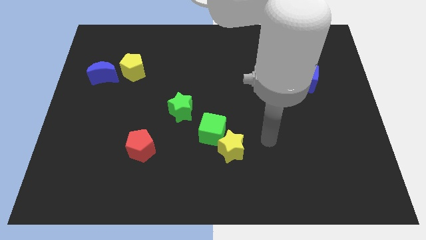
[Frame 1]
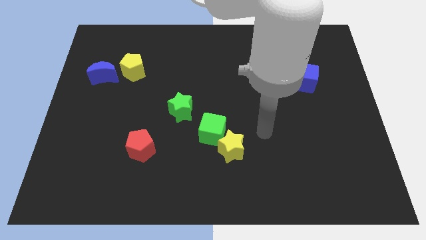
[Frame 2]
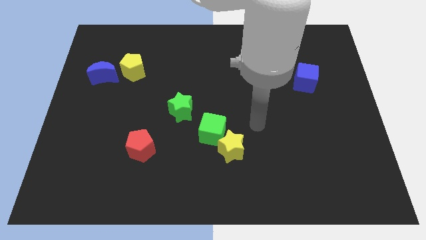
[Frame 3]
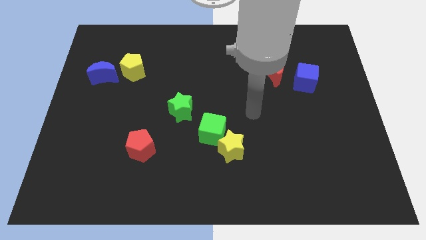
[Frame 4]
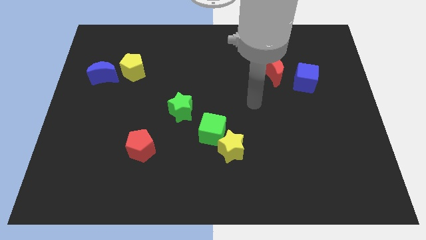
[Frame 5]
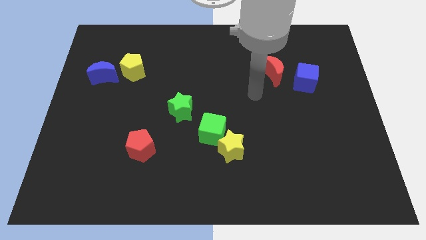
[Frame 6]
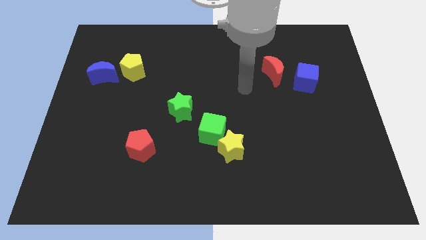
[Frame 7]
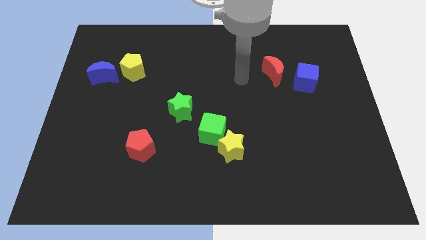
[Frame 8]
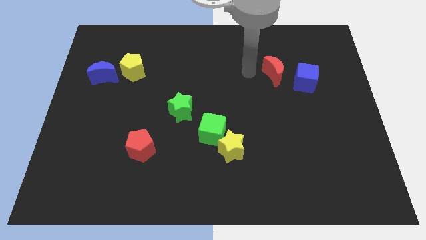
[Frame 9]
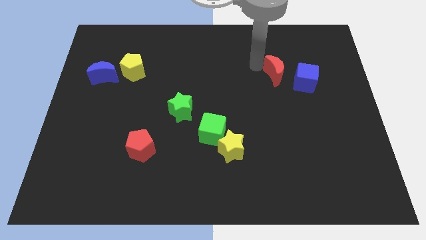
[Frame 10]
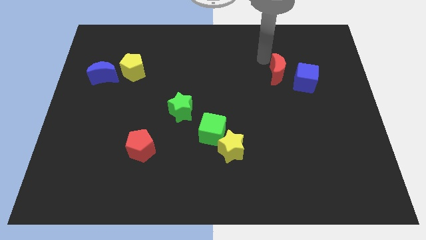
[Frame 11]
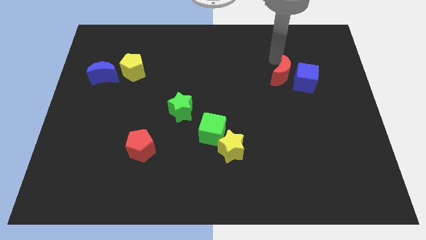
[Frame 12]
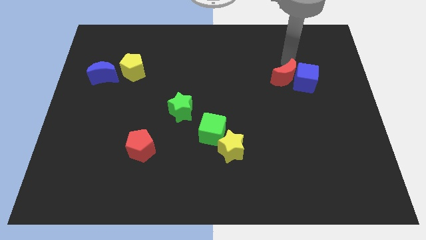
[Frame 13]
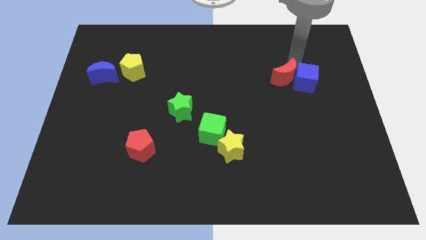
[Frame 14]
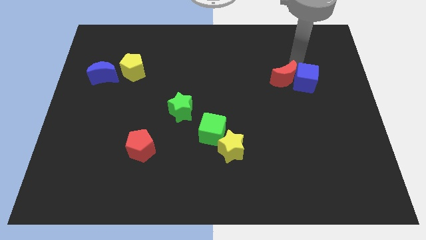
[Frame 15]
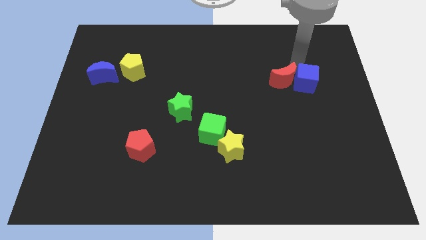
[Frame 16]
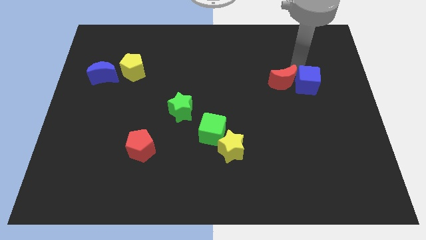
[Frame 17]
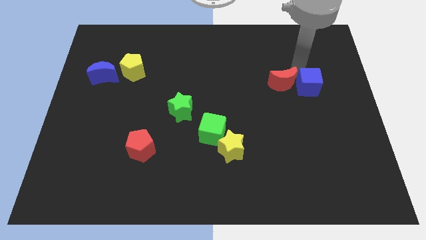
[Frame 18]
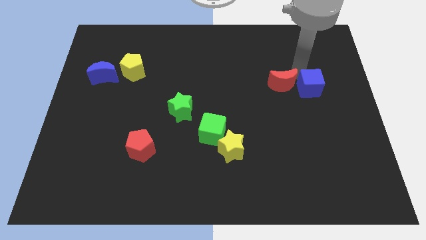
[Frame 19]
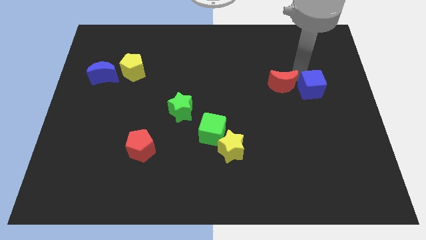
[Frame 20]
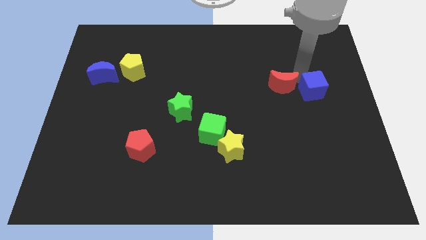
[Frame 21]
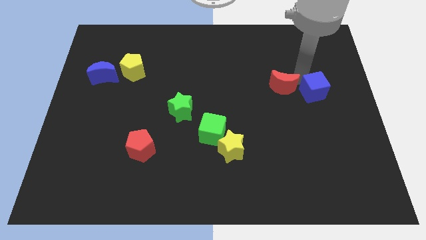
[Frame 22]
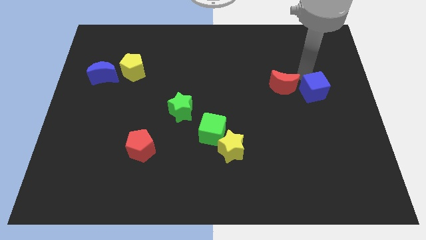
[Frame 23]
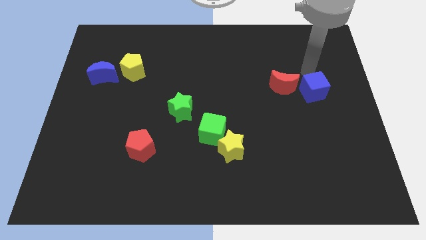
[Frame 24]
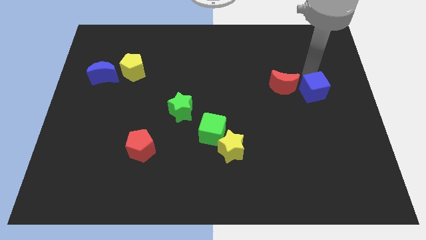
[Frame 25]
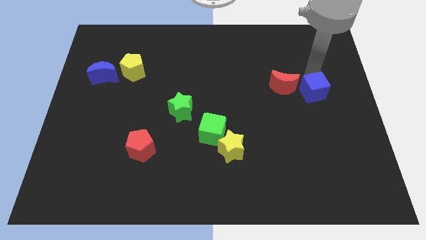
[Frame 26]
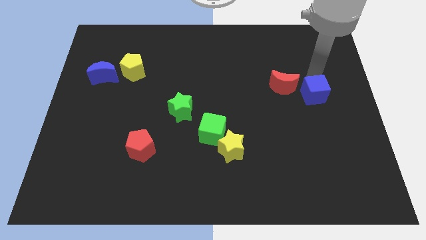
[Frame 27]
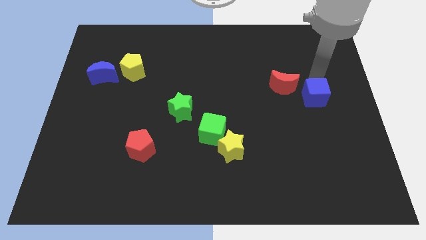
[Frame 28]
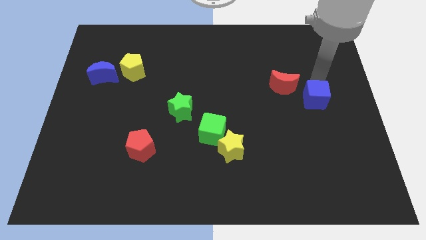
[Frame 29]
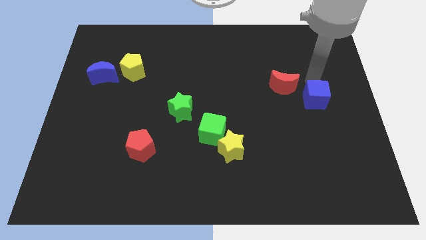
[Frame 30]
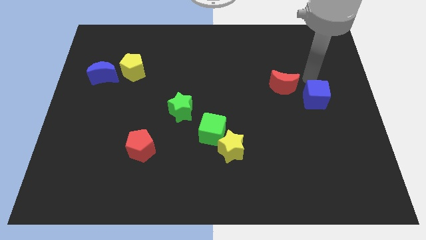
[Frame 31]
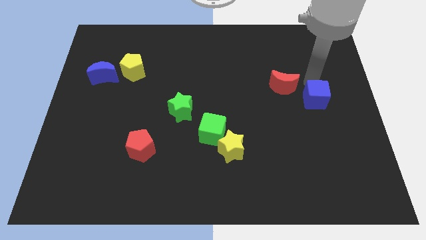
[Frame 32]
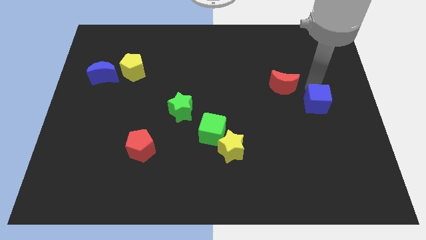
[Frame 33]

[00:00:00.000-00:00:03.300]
move the blue cube down somewhat

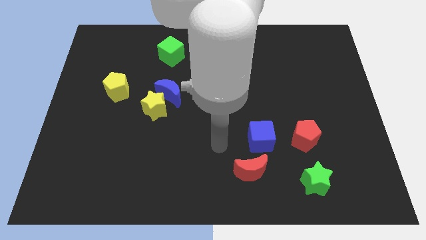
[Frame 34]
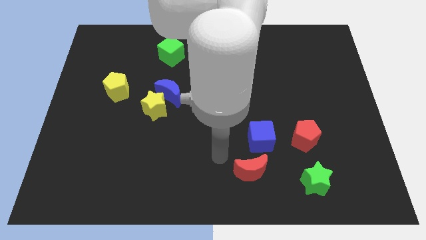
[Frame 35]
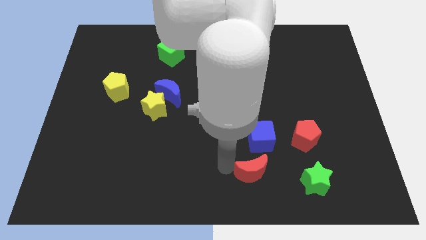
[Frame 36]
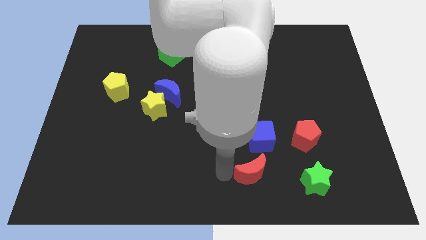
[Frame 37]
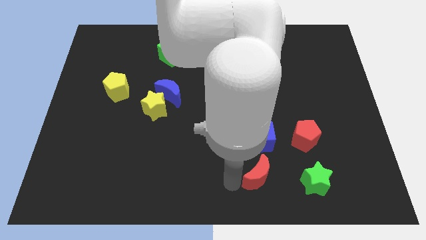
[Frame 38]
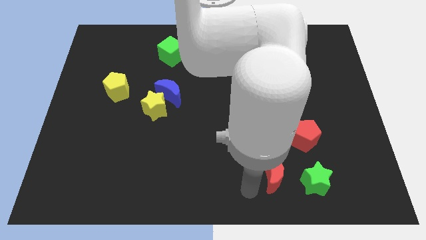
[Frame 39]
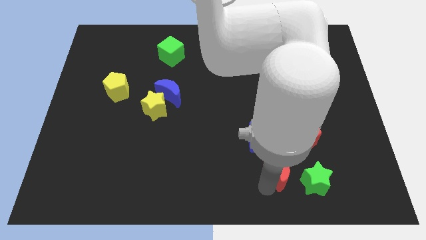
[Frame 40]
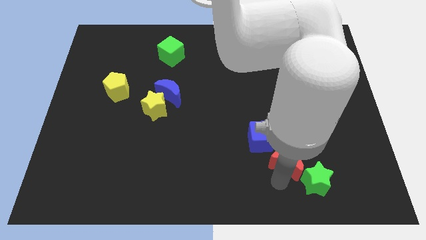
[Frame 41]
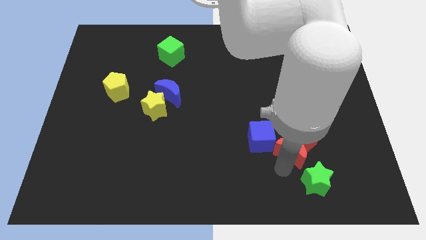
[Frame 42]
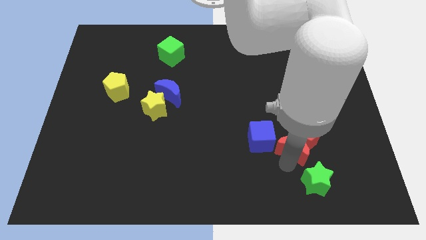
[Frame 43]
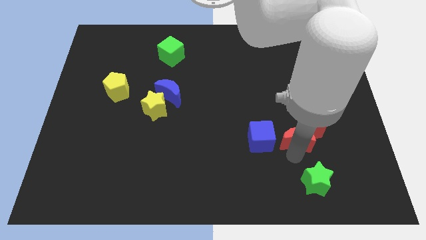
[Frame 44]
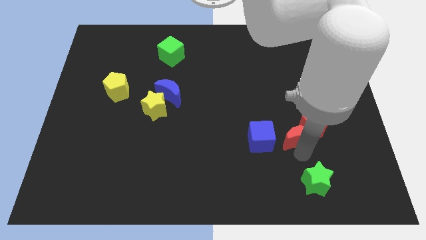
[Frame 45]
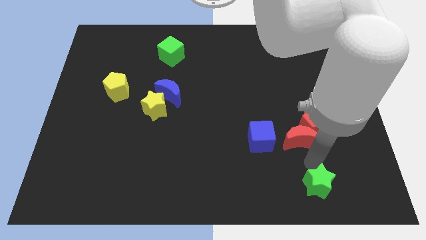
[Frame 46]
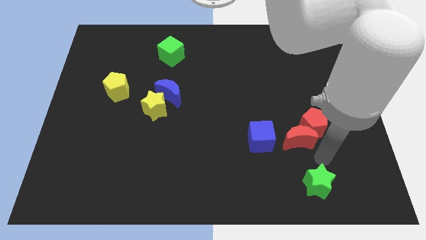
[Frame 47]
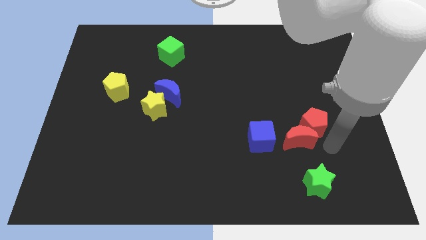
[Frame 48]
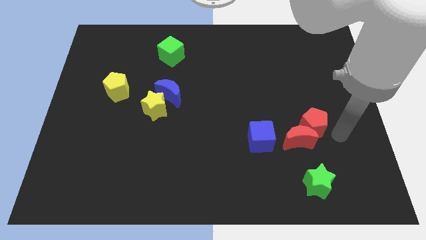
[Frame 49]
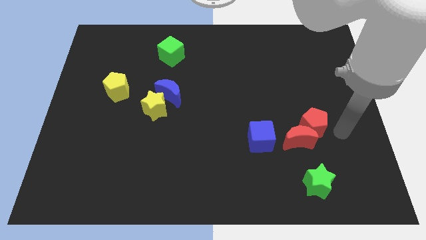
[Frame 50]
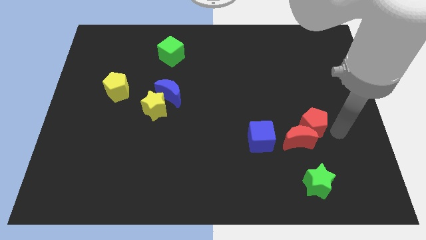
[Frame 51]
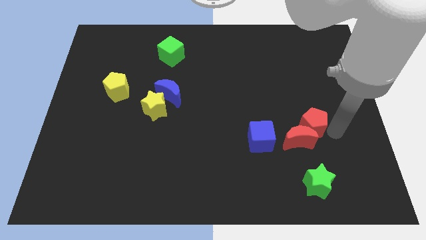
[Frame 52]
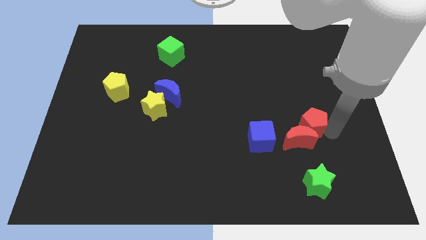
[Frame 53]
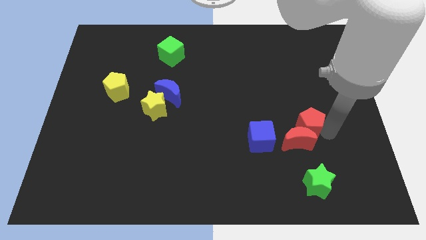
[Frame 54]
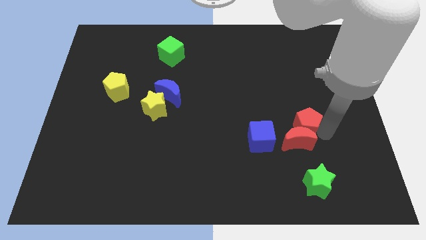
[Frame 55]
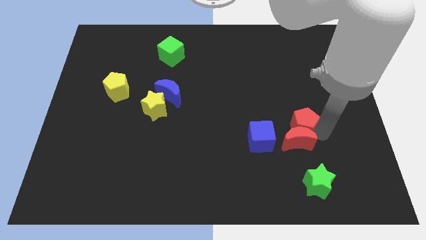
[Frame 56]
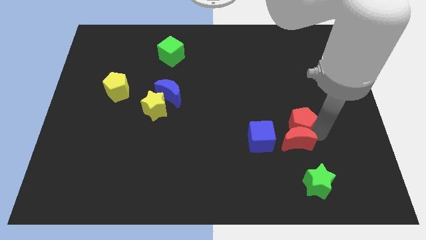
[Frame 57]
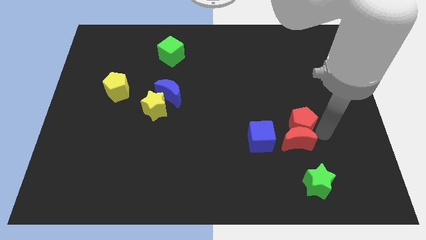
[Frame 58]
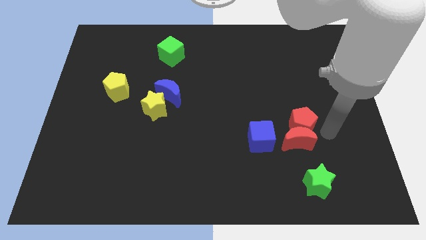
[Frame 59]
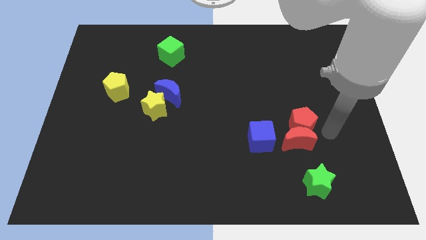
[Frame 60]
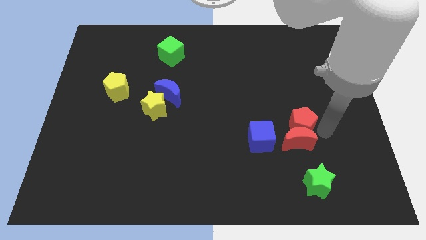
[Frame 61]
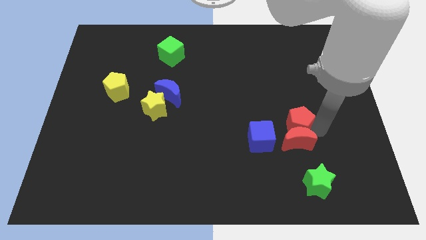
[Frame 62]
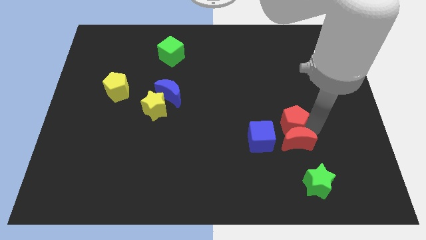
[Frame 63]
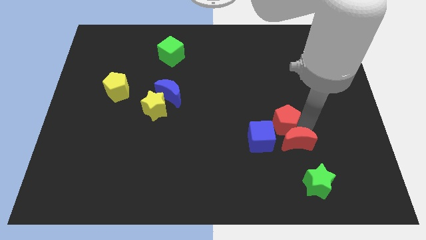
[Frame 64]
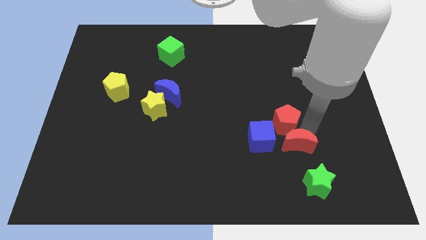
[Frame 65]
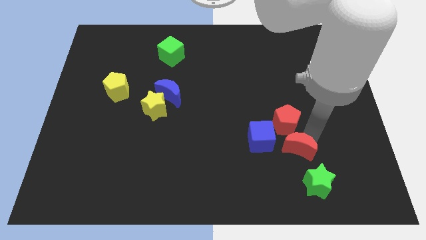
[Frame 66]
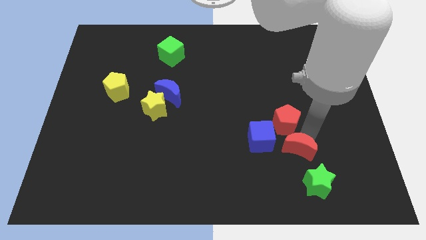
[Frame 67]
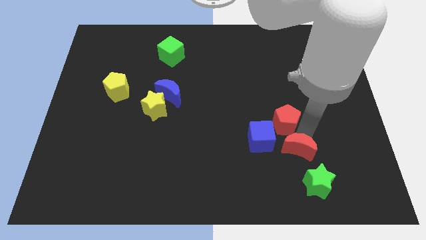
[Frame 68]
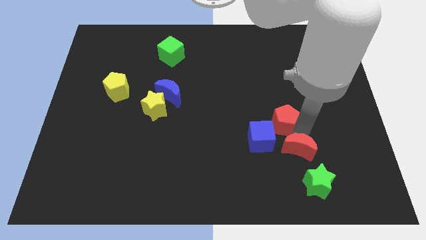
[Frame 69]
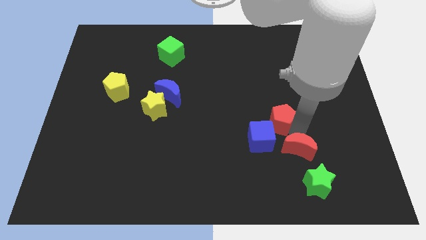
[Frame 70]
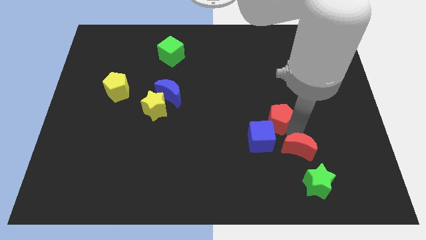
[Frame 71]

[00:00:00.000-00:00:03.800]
slide the red pentagon somewhat upwards and to the left diagonally

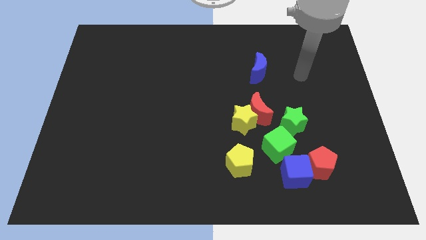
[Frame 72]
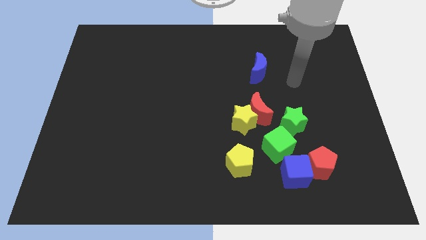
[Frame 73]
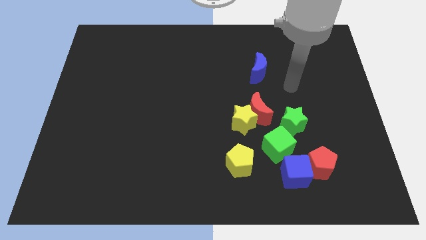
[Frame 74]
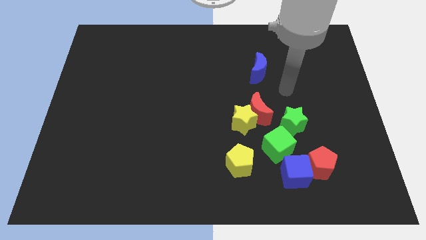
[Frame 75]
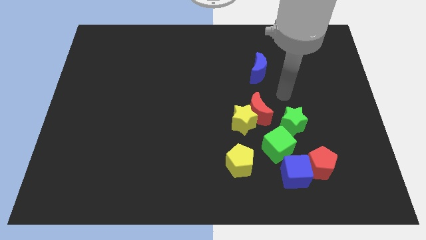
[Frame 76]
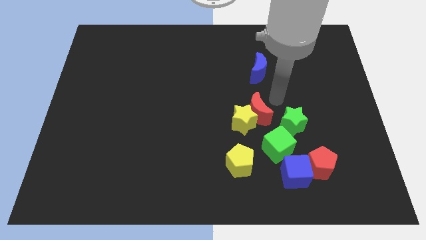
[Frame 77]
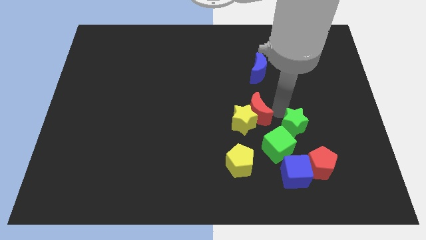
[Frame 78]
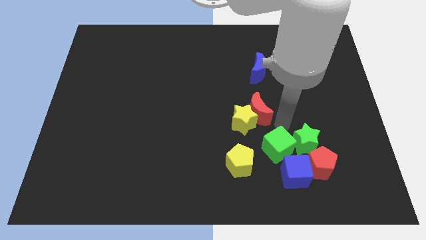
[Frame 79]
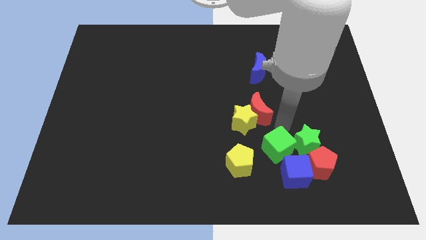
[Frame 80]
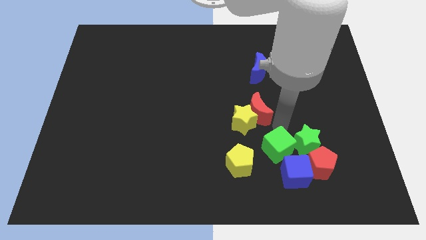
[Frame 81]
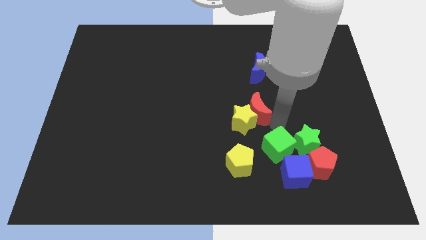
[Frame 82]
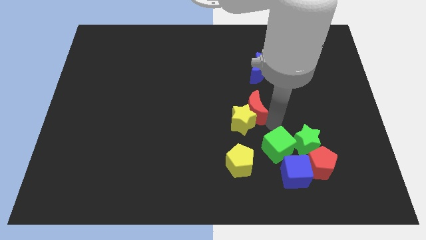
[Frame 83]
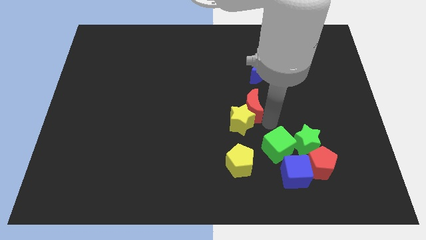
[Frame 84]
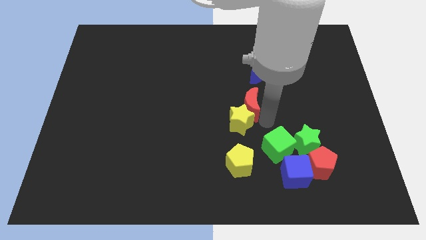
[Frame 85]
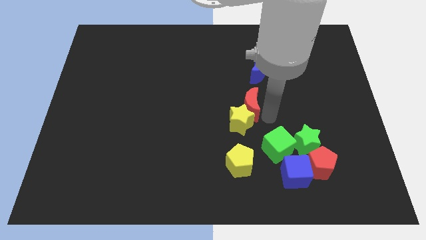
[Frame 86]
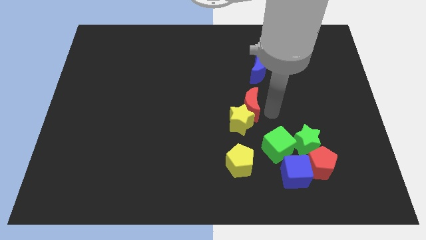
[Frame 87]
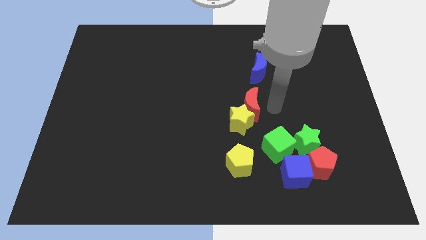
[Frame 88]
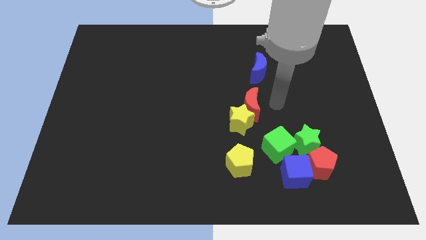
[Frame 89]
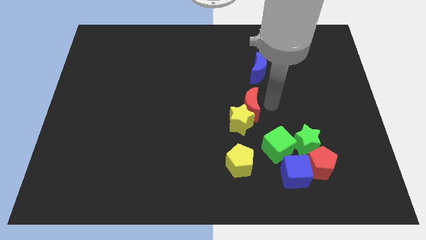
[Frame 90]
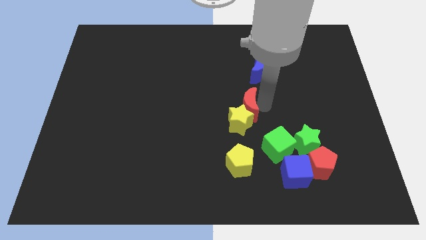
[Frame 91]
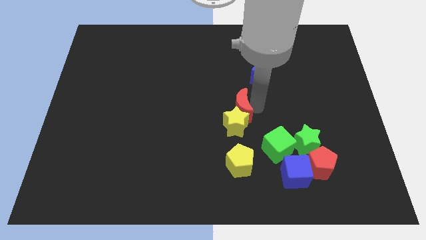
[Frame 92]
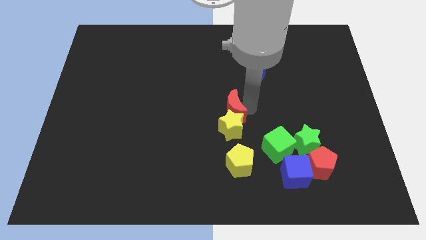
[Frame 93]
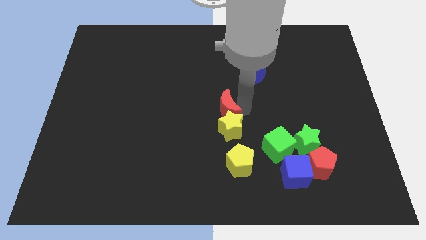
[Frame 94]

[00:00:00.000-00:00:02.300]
push the red moon left a little bit
